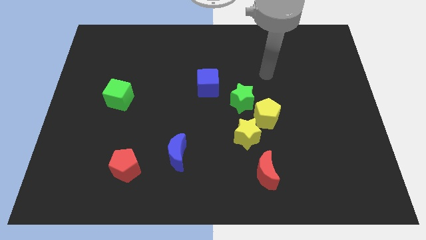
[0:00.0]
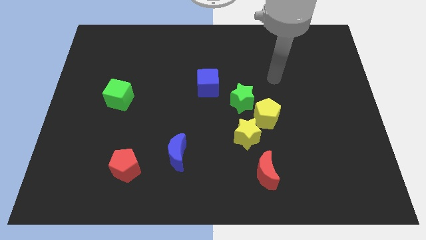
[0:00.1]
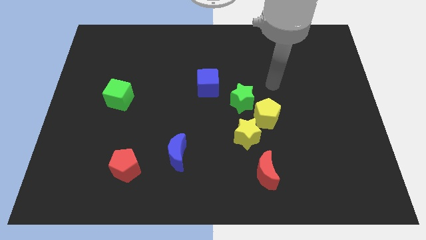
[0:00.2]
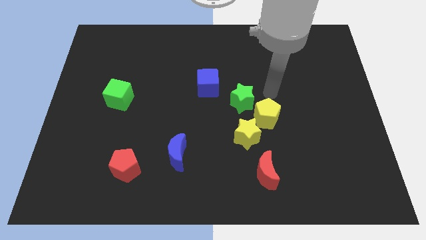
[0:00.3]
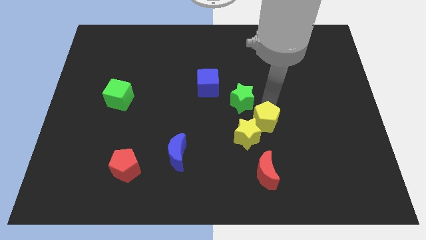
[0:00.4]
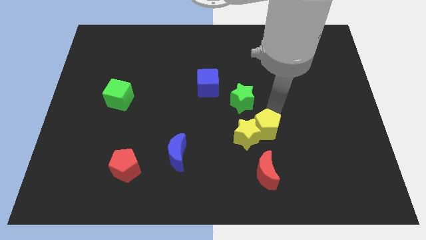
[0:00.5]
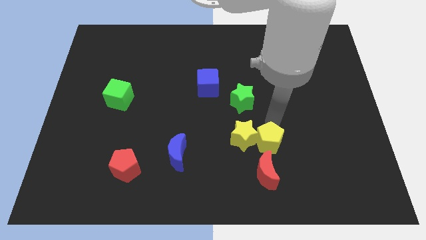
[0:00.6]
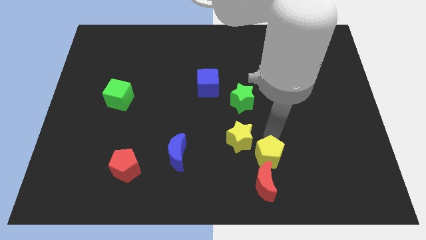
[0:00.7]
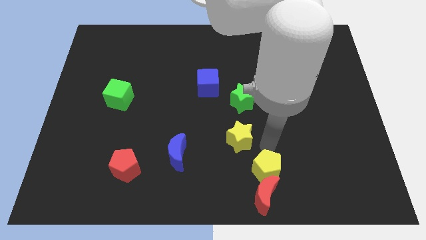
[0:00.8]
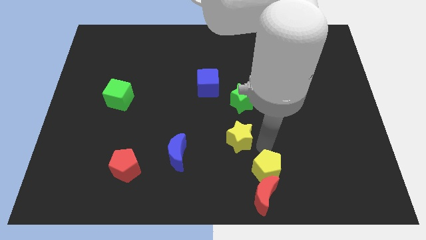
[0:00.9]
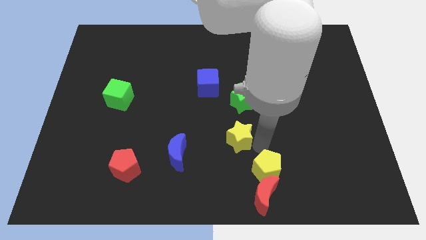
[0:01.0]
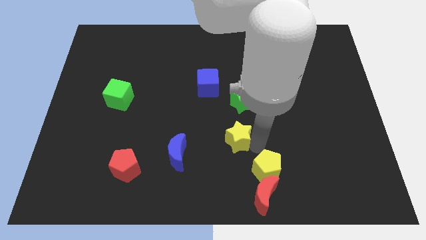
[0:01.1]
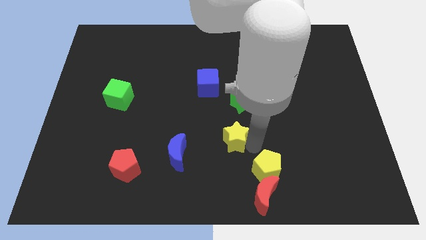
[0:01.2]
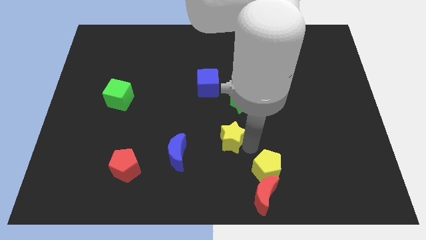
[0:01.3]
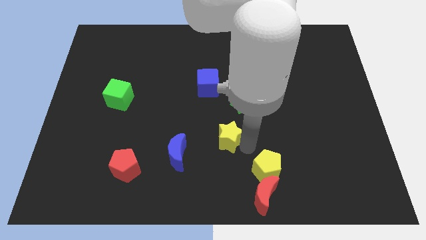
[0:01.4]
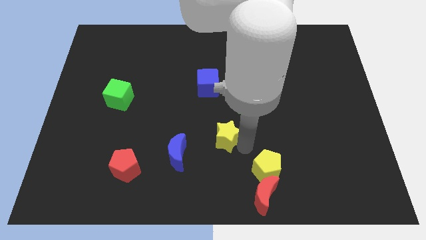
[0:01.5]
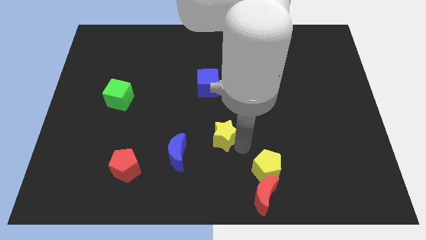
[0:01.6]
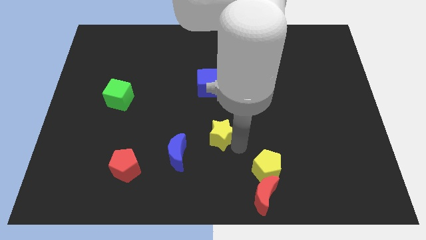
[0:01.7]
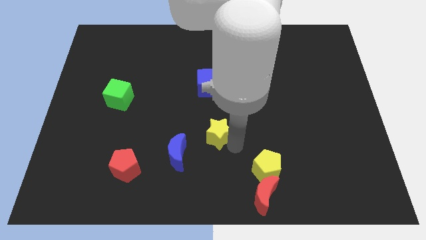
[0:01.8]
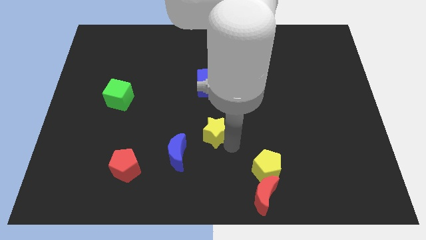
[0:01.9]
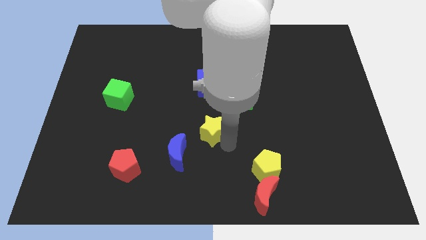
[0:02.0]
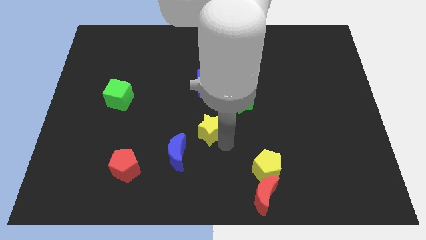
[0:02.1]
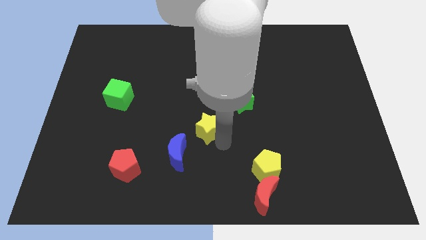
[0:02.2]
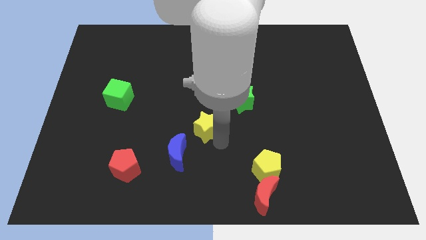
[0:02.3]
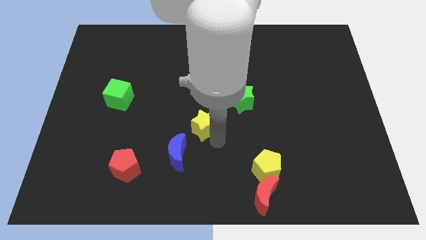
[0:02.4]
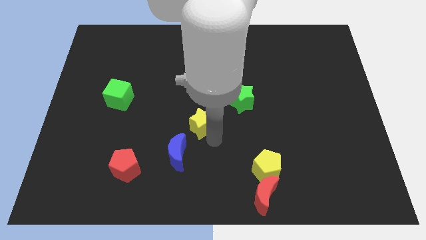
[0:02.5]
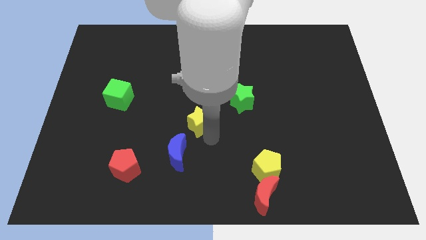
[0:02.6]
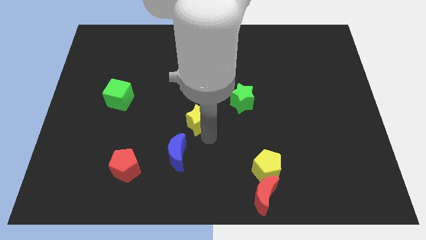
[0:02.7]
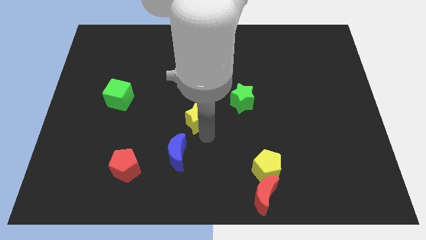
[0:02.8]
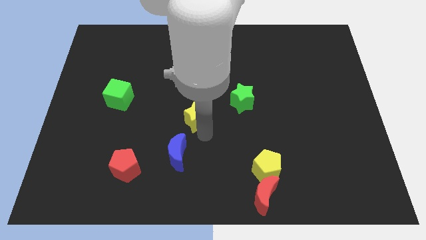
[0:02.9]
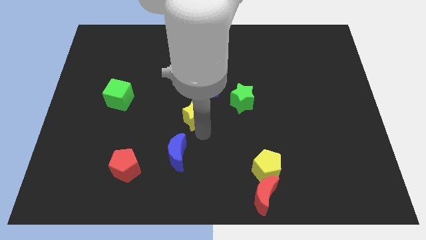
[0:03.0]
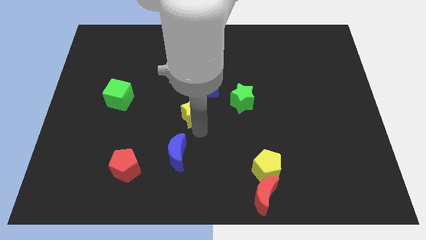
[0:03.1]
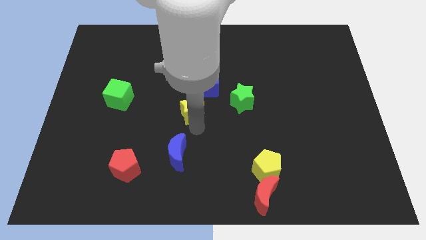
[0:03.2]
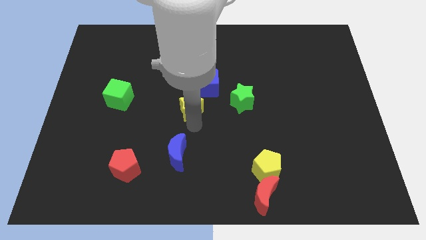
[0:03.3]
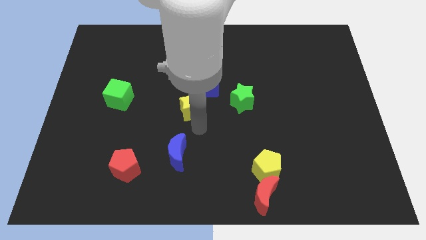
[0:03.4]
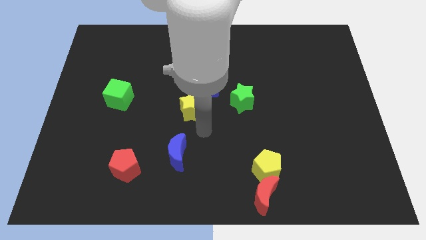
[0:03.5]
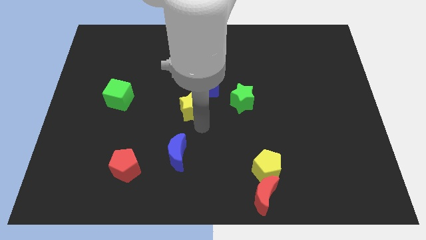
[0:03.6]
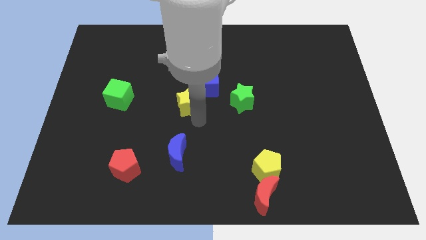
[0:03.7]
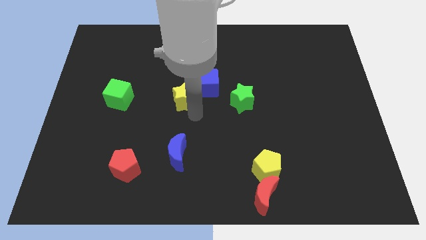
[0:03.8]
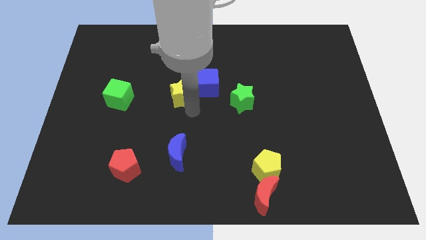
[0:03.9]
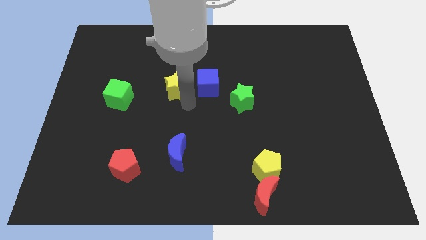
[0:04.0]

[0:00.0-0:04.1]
slide the yellow star up and to the left

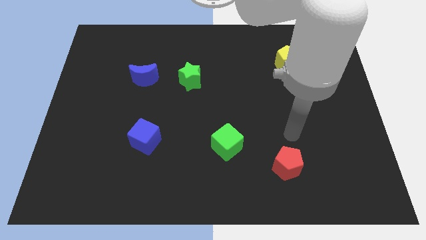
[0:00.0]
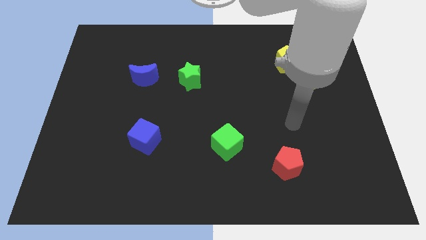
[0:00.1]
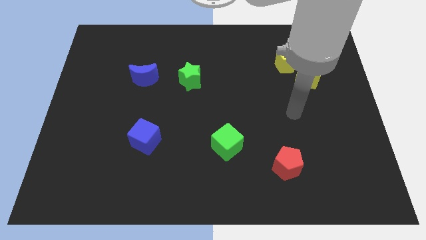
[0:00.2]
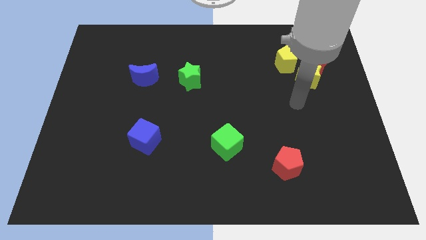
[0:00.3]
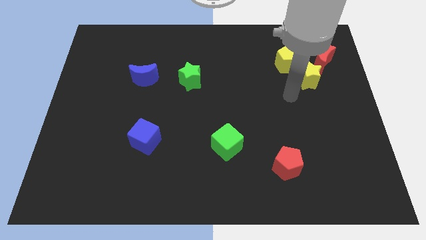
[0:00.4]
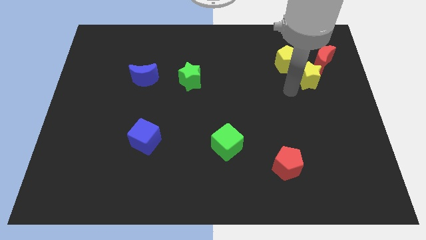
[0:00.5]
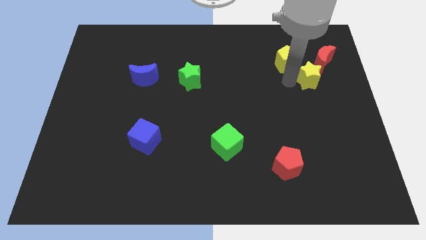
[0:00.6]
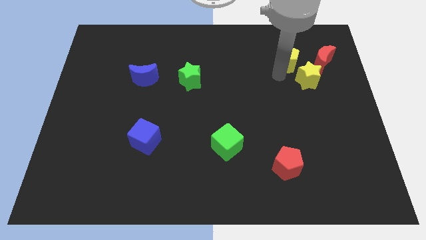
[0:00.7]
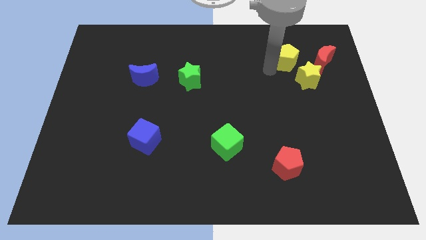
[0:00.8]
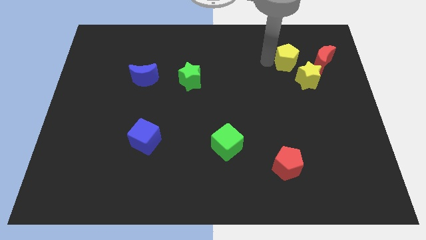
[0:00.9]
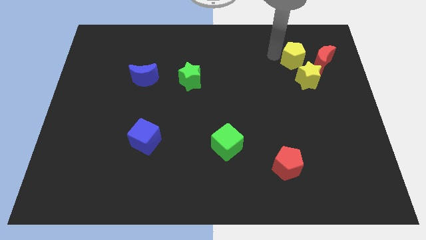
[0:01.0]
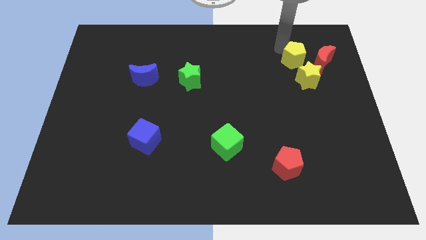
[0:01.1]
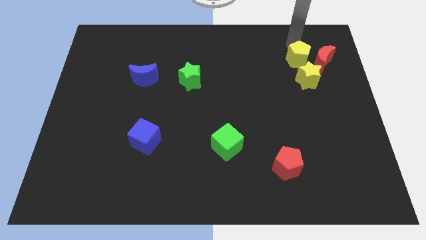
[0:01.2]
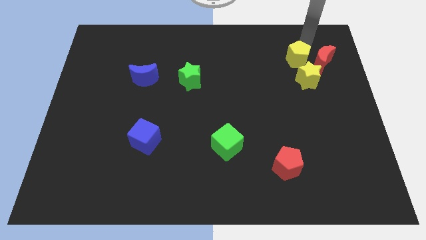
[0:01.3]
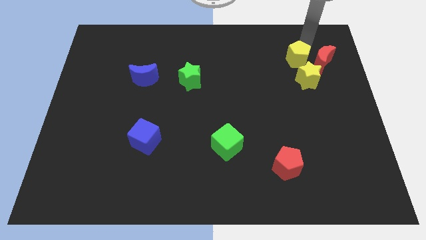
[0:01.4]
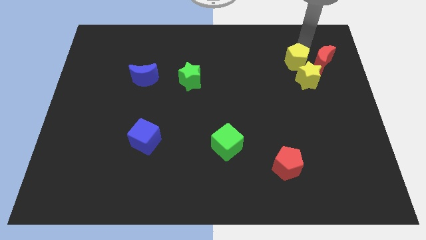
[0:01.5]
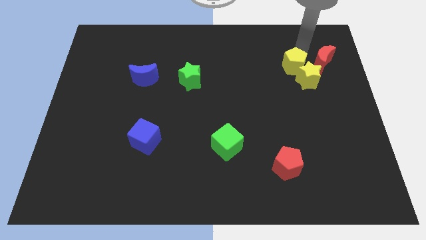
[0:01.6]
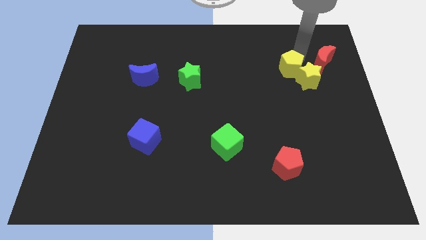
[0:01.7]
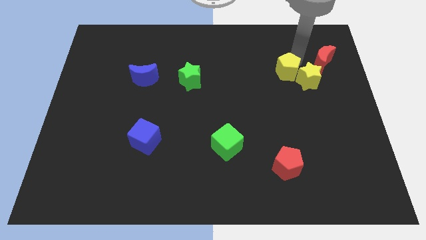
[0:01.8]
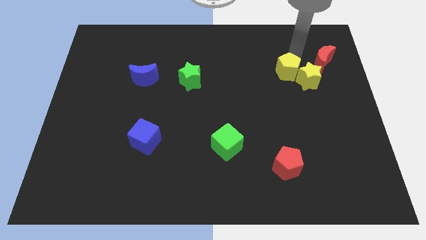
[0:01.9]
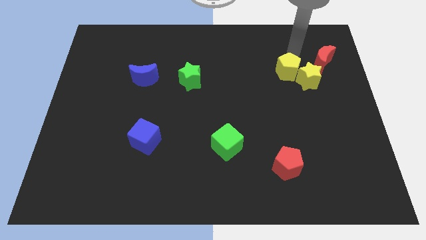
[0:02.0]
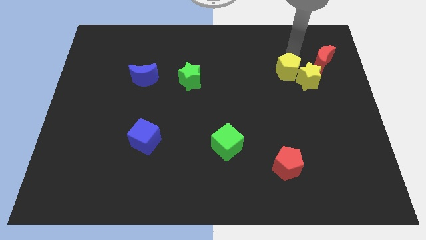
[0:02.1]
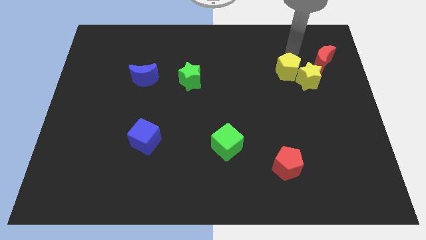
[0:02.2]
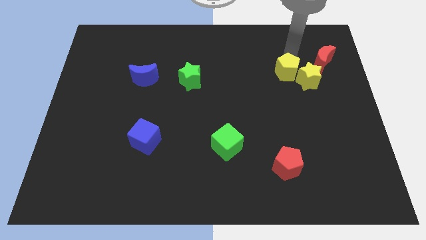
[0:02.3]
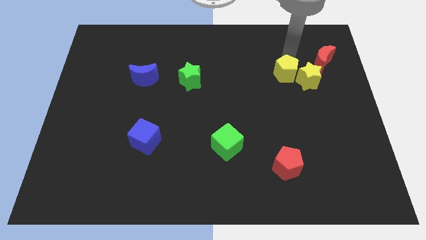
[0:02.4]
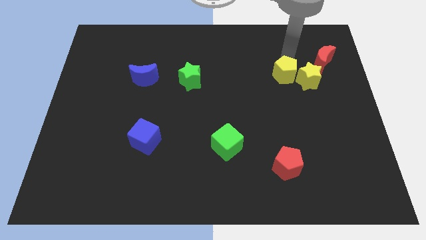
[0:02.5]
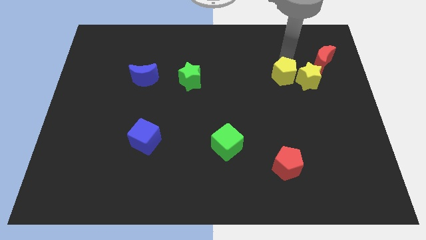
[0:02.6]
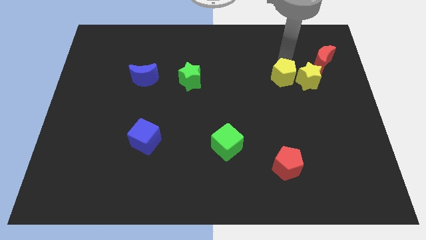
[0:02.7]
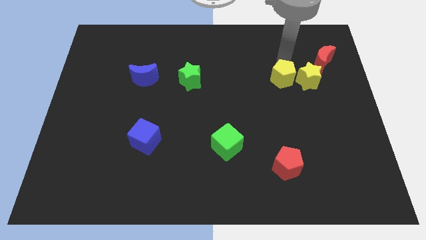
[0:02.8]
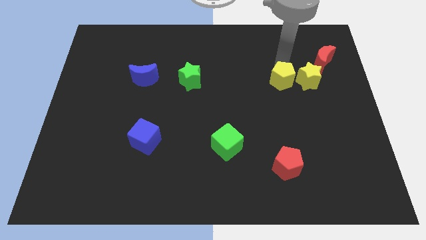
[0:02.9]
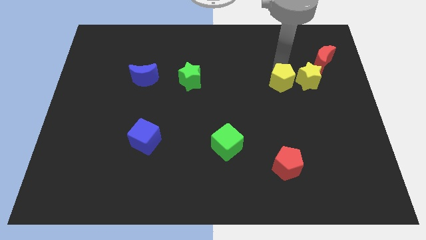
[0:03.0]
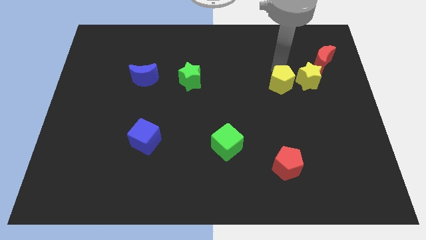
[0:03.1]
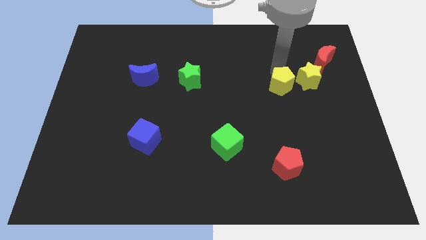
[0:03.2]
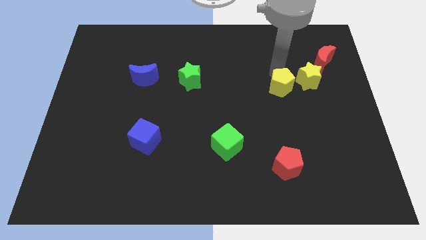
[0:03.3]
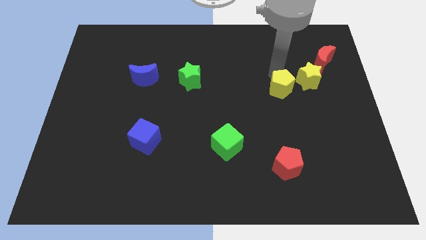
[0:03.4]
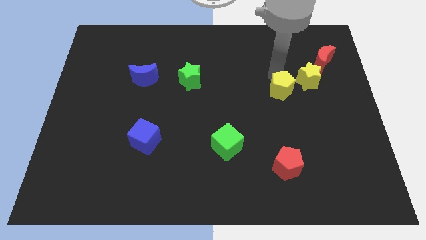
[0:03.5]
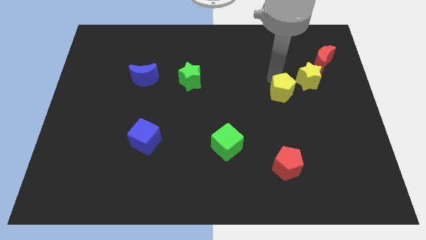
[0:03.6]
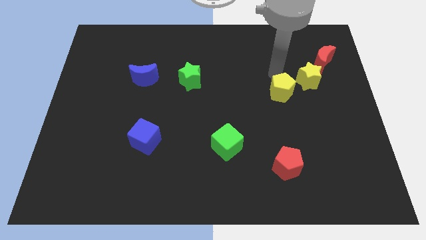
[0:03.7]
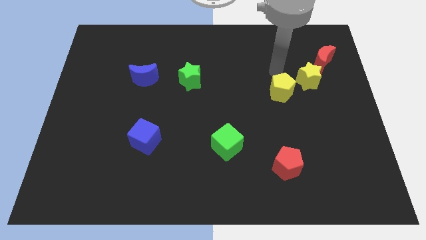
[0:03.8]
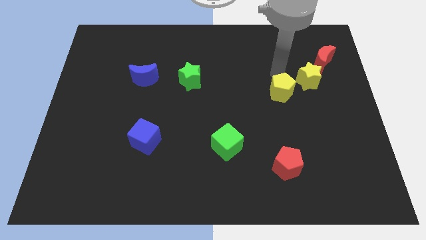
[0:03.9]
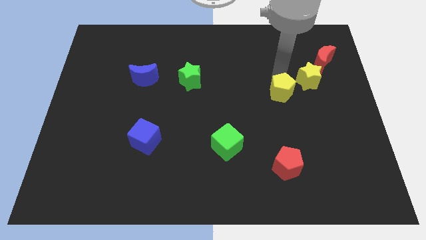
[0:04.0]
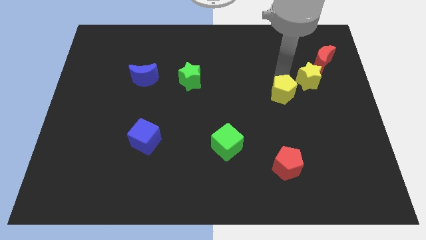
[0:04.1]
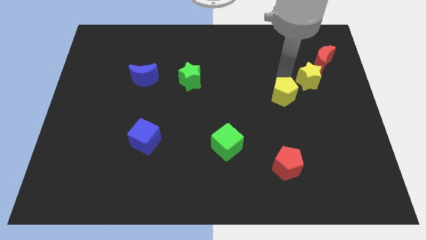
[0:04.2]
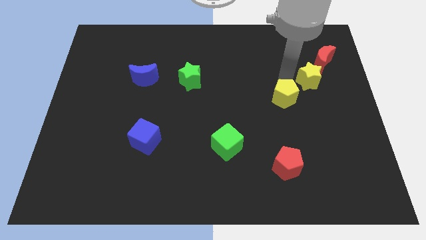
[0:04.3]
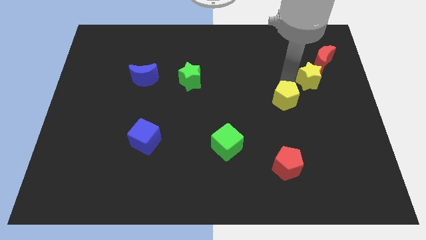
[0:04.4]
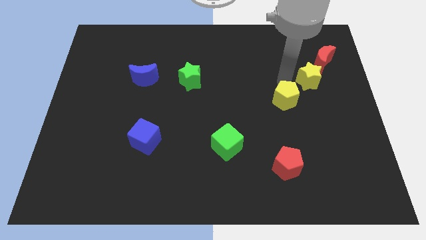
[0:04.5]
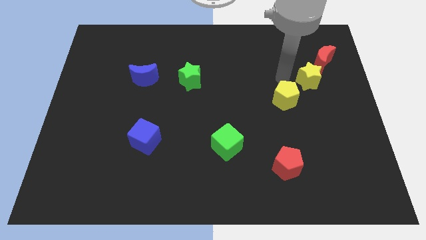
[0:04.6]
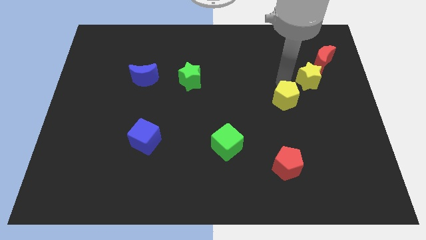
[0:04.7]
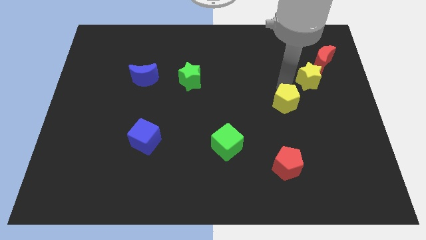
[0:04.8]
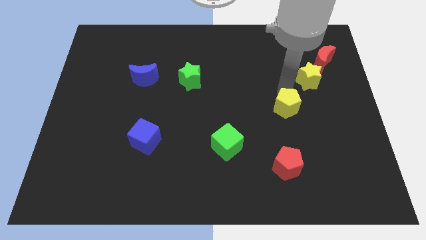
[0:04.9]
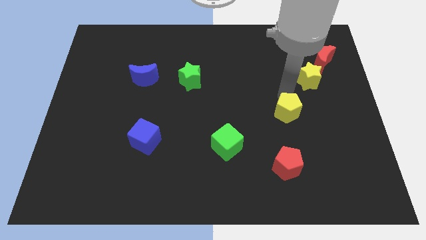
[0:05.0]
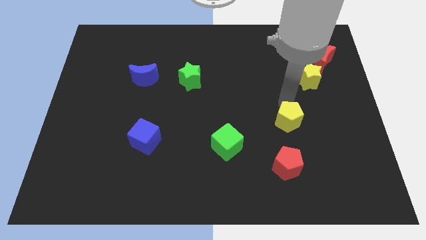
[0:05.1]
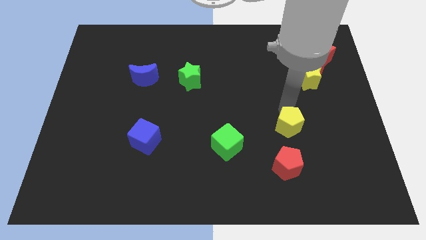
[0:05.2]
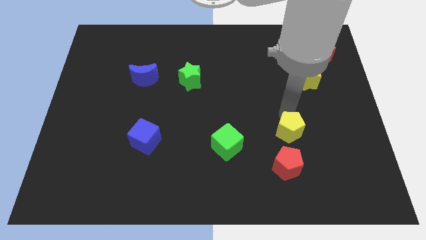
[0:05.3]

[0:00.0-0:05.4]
push the yellow pentagon down
